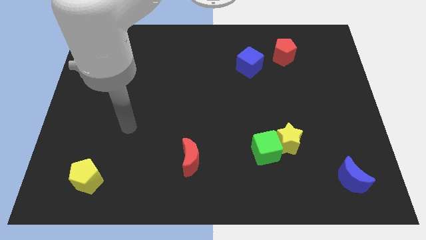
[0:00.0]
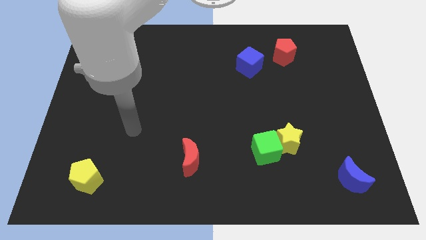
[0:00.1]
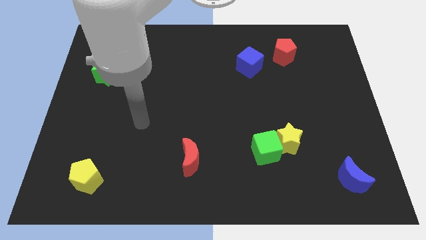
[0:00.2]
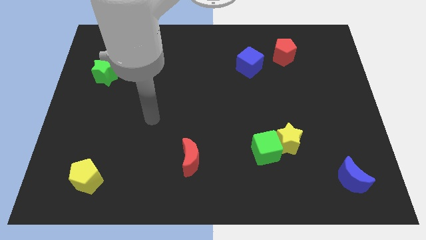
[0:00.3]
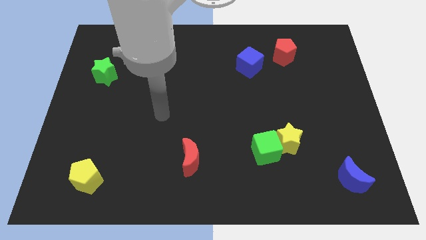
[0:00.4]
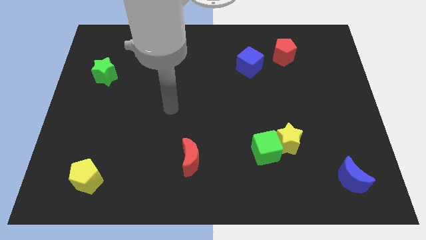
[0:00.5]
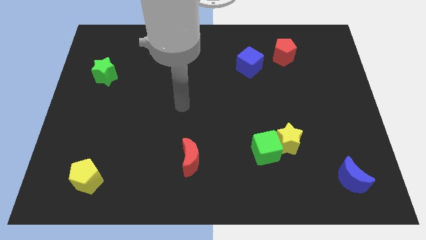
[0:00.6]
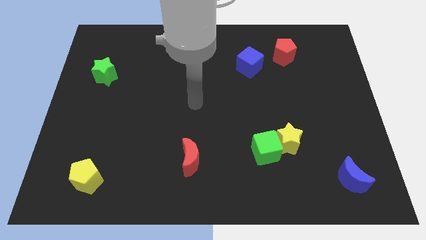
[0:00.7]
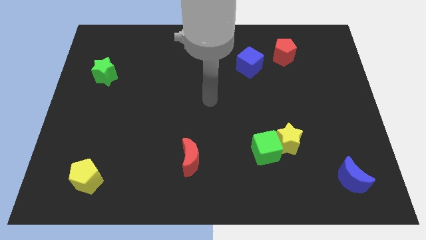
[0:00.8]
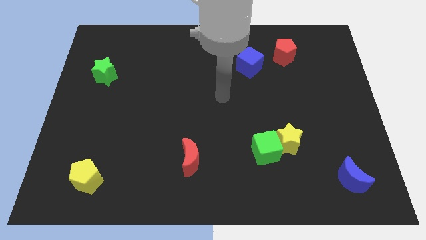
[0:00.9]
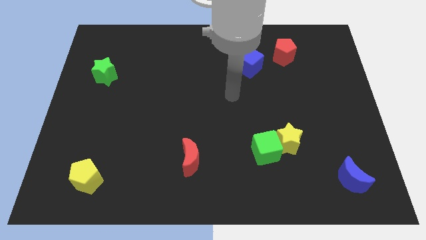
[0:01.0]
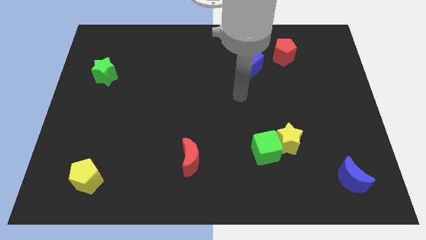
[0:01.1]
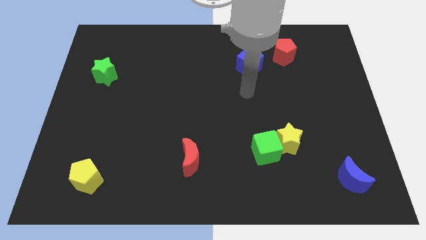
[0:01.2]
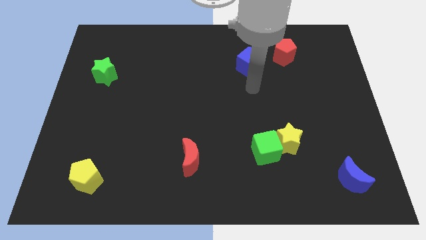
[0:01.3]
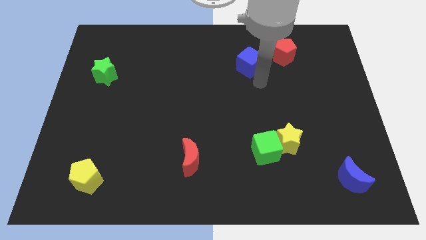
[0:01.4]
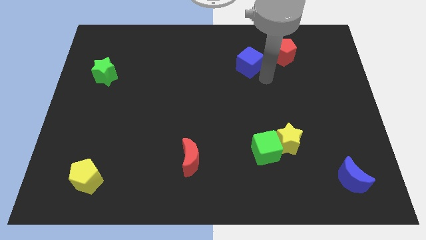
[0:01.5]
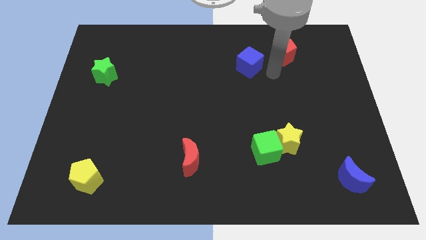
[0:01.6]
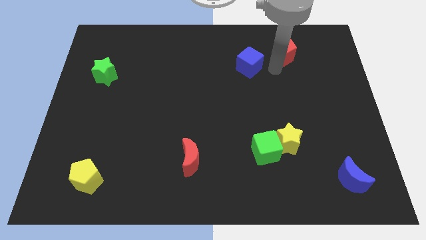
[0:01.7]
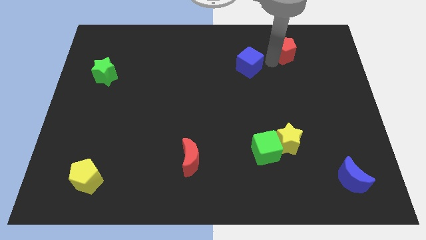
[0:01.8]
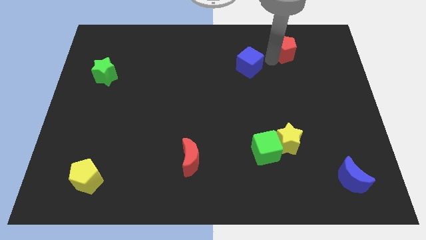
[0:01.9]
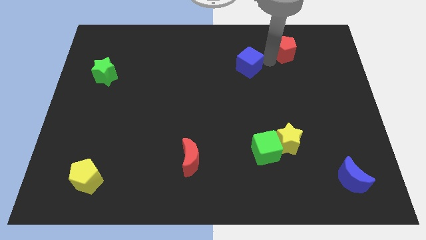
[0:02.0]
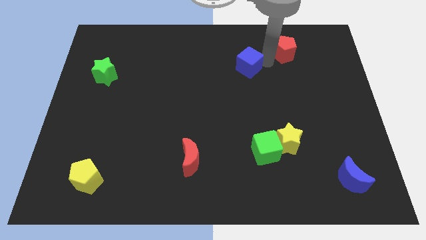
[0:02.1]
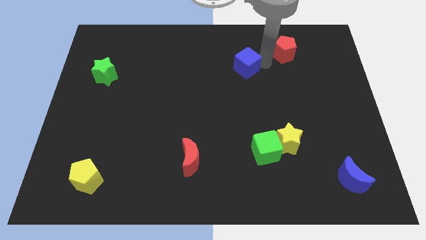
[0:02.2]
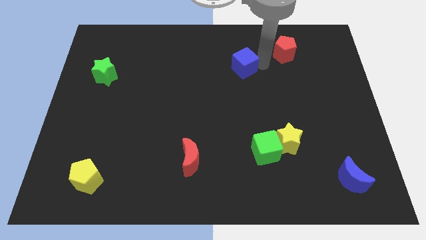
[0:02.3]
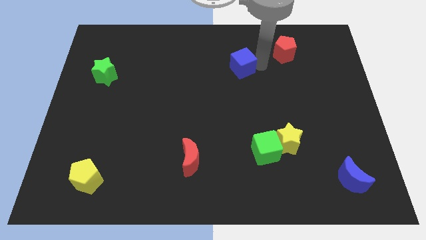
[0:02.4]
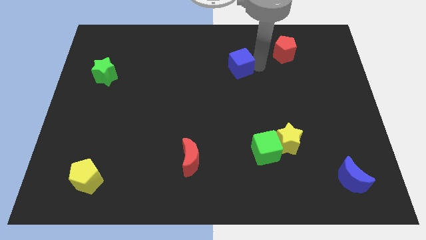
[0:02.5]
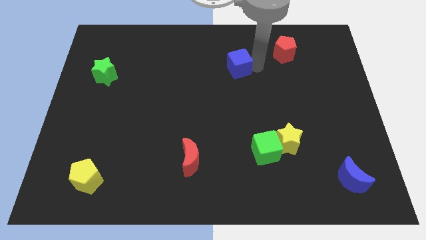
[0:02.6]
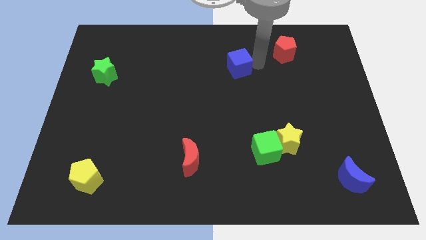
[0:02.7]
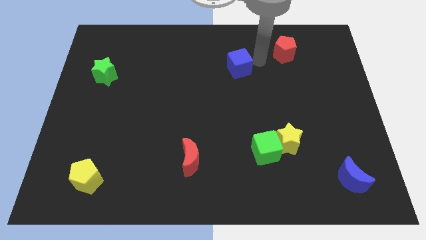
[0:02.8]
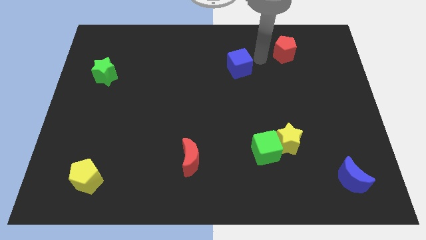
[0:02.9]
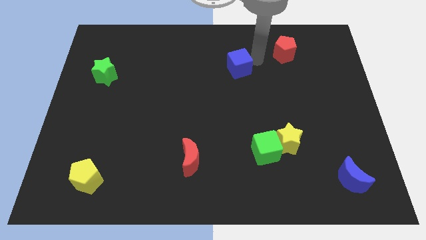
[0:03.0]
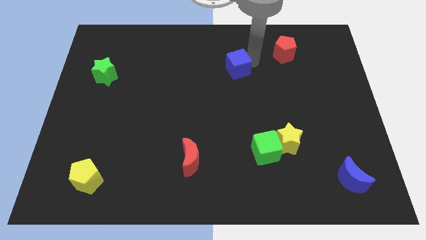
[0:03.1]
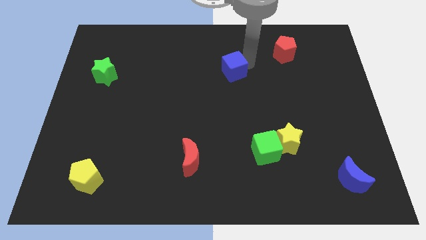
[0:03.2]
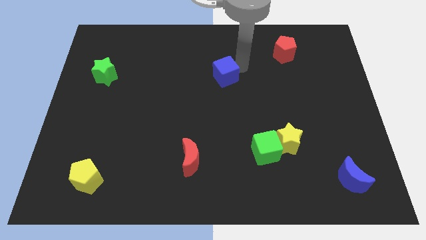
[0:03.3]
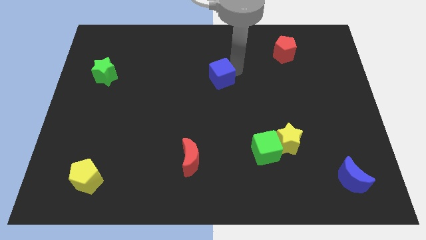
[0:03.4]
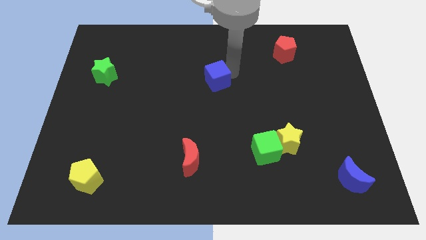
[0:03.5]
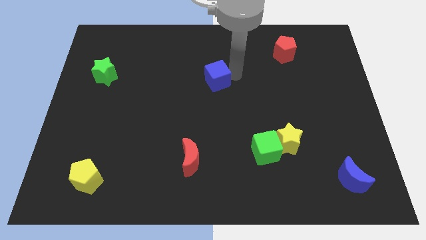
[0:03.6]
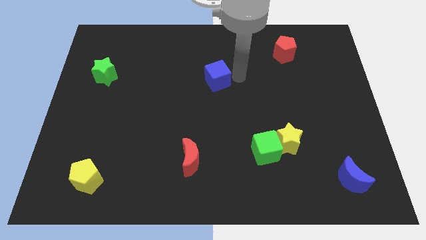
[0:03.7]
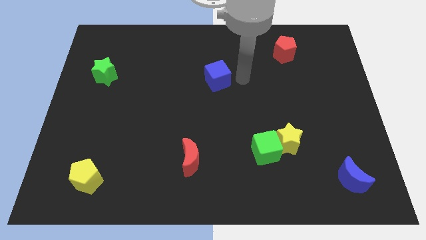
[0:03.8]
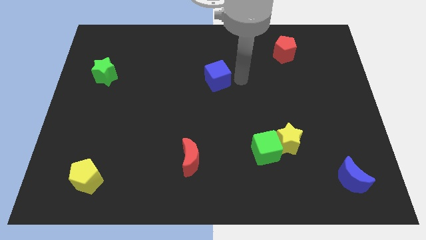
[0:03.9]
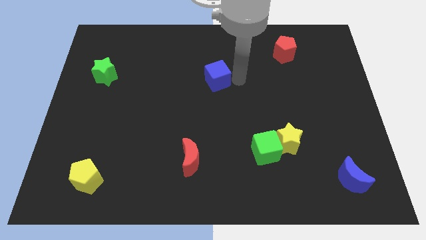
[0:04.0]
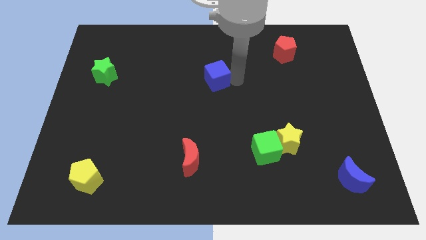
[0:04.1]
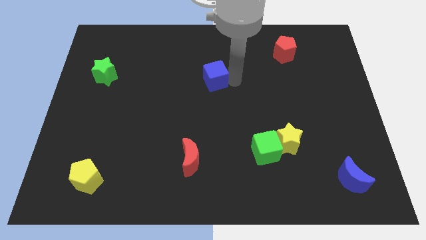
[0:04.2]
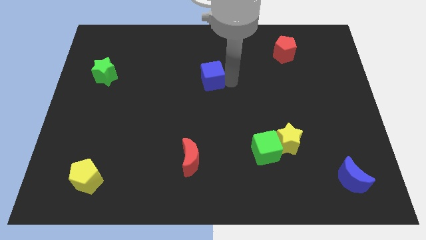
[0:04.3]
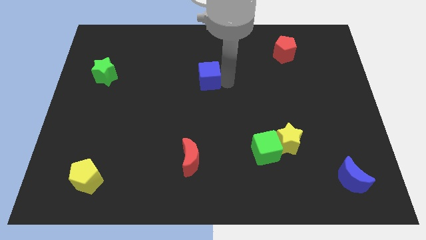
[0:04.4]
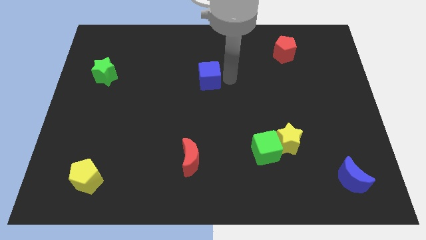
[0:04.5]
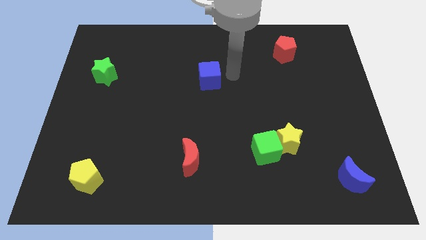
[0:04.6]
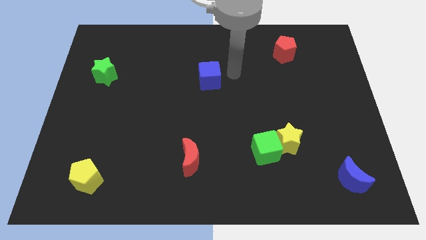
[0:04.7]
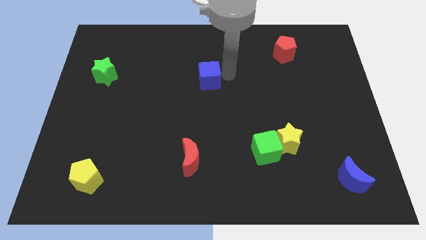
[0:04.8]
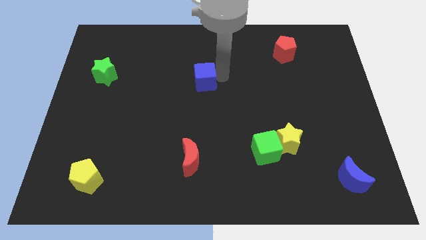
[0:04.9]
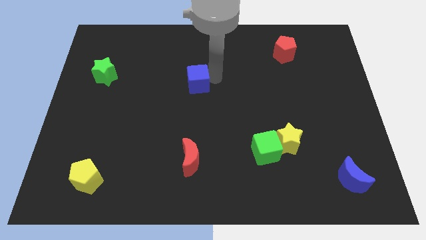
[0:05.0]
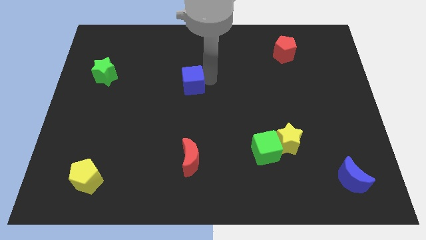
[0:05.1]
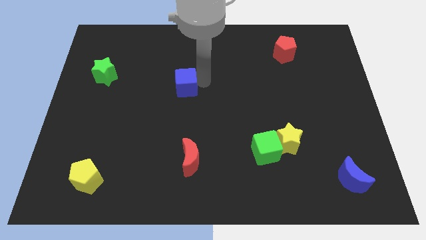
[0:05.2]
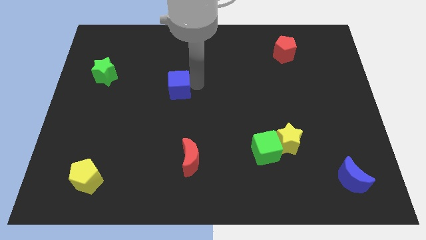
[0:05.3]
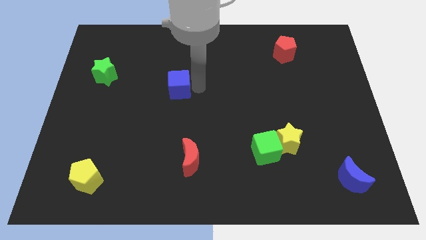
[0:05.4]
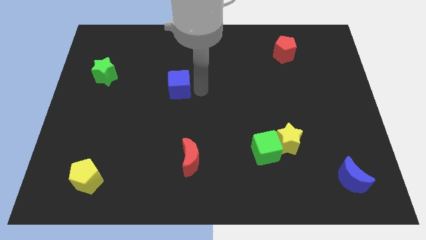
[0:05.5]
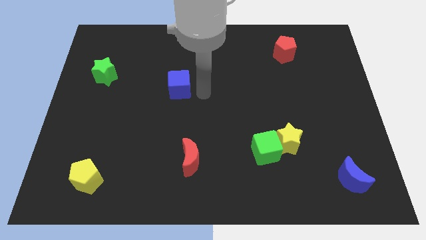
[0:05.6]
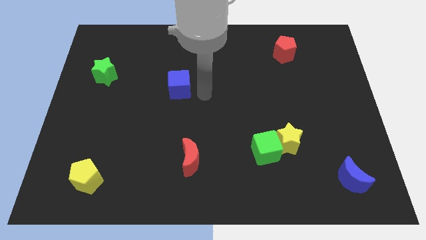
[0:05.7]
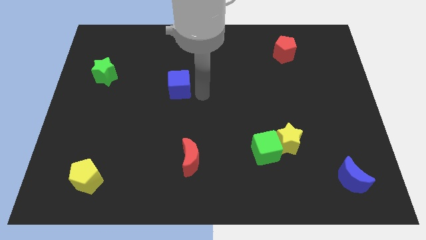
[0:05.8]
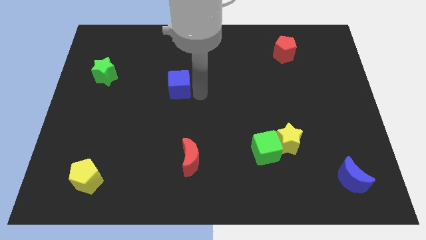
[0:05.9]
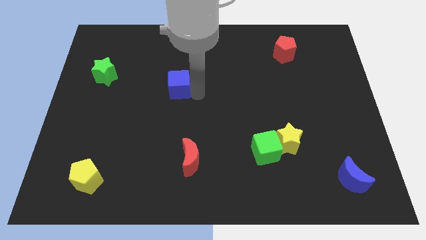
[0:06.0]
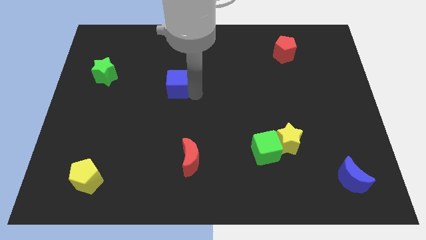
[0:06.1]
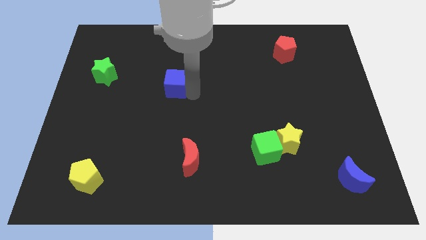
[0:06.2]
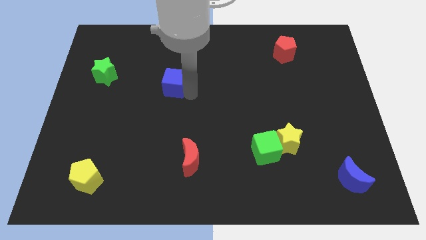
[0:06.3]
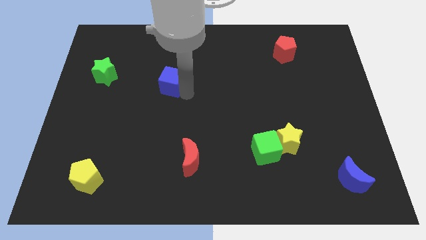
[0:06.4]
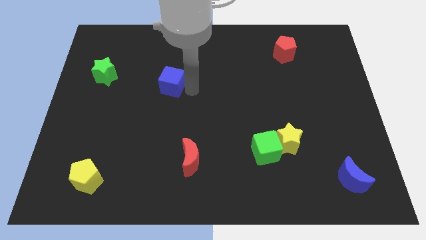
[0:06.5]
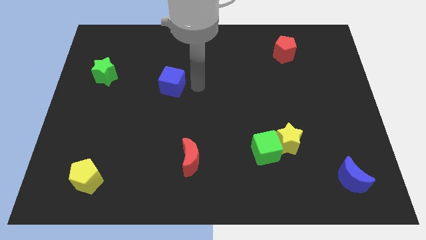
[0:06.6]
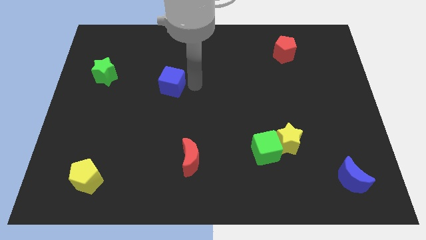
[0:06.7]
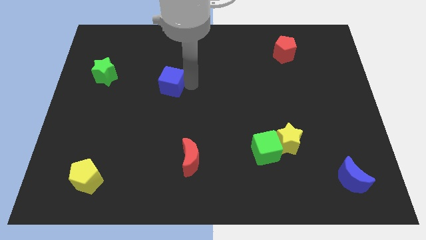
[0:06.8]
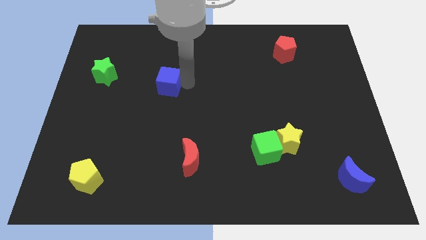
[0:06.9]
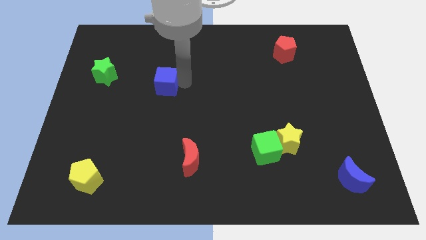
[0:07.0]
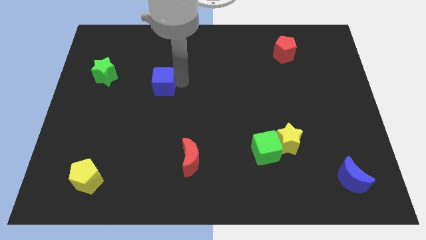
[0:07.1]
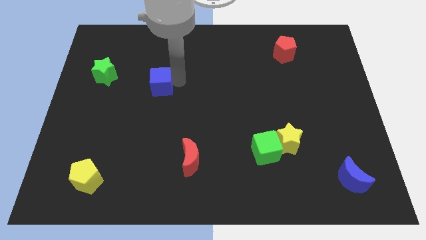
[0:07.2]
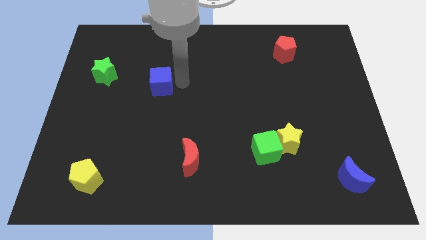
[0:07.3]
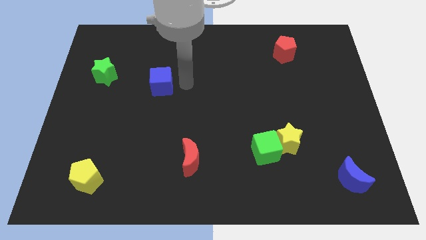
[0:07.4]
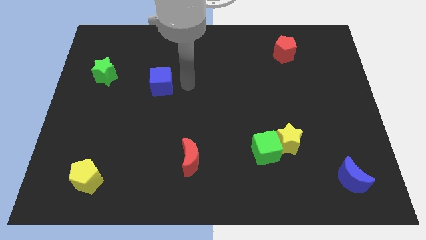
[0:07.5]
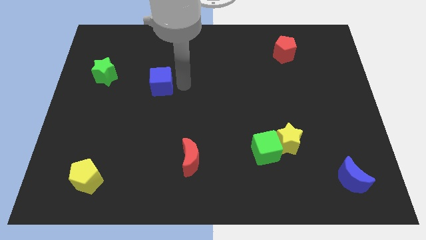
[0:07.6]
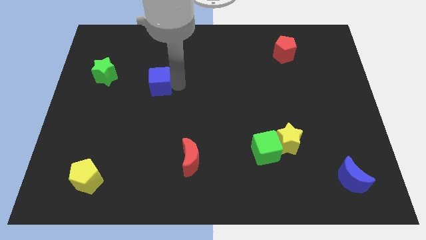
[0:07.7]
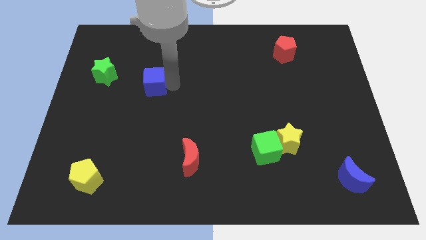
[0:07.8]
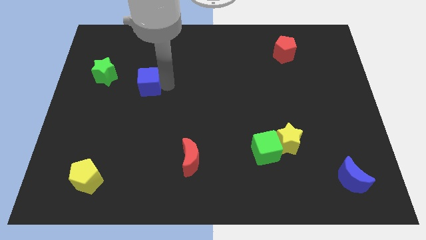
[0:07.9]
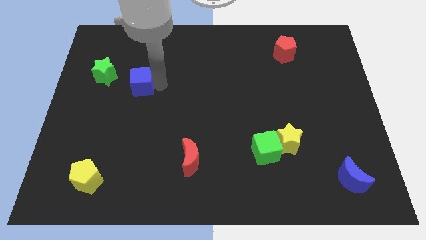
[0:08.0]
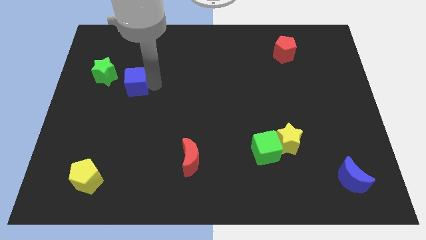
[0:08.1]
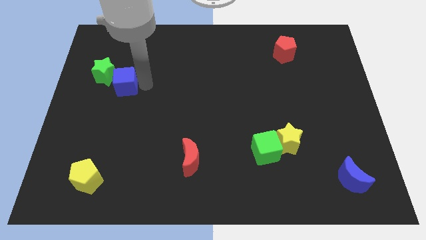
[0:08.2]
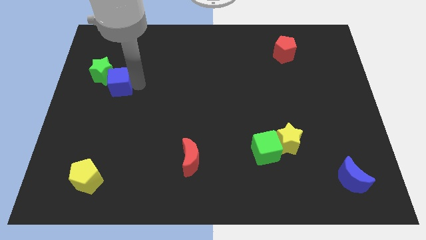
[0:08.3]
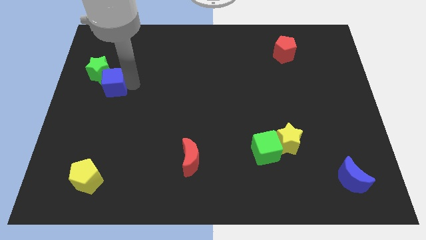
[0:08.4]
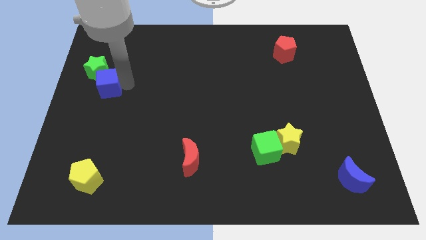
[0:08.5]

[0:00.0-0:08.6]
slide the blue cube to the left side
